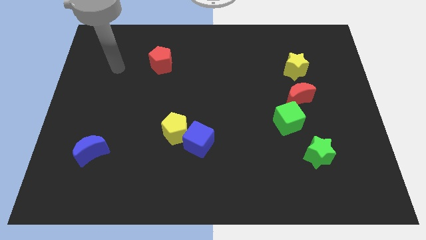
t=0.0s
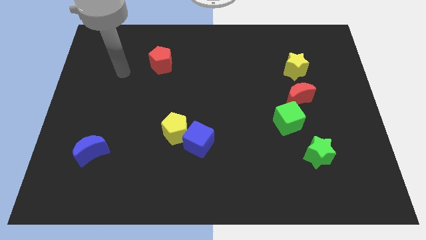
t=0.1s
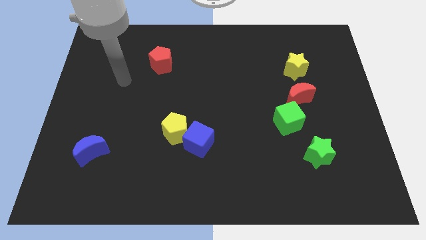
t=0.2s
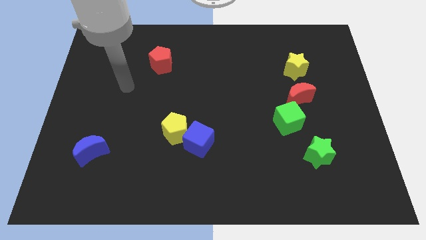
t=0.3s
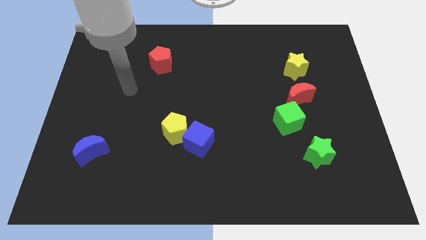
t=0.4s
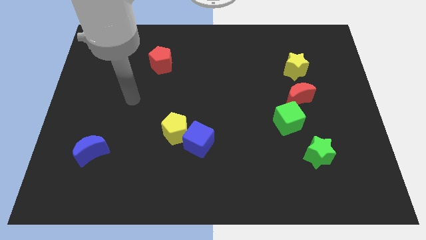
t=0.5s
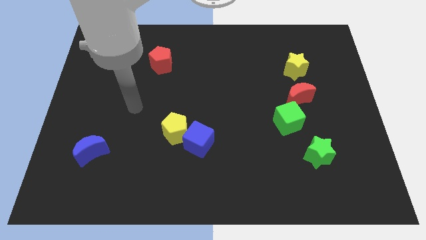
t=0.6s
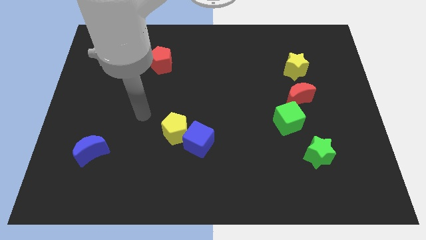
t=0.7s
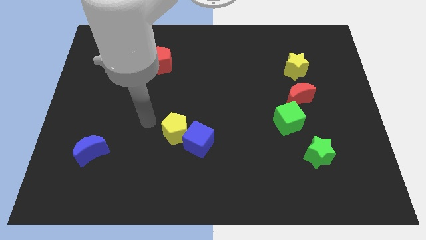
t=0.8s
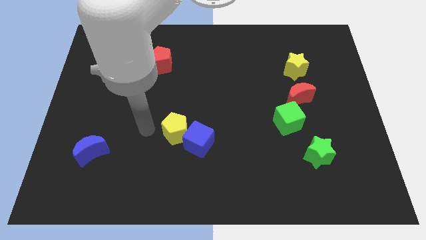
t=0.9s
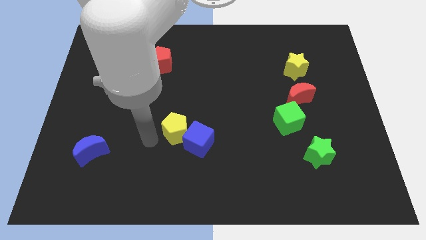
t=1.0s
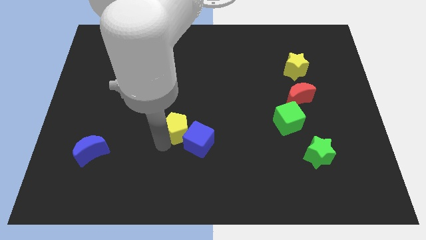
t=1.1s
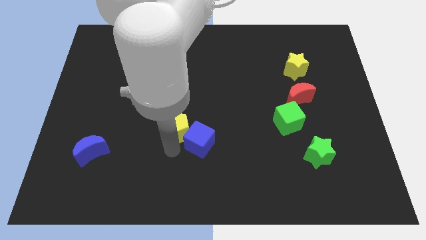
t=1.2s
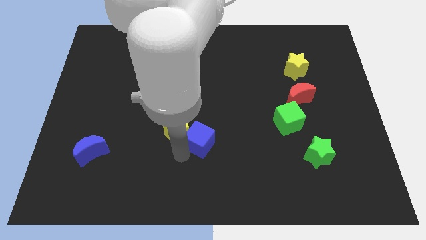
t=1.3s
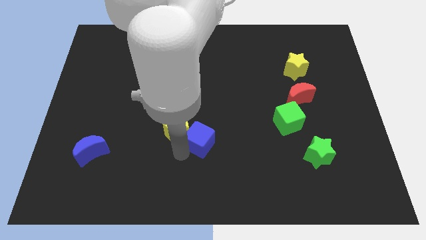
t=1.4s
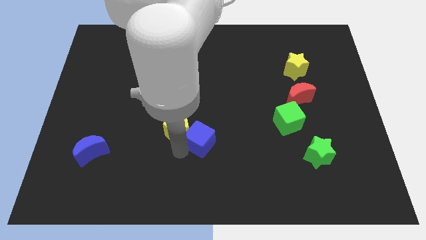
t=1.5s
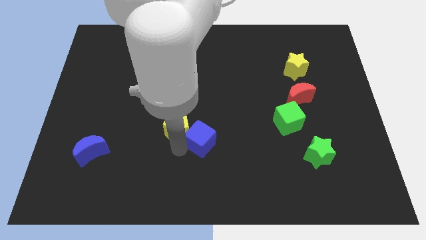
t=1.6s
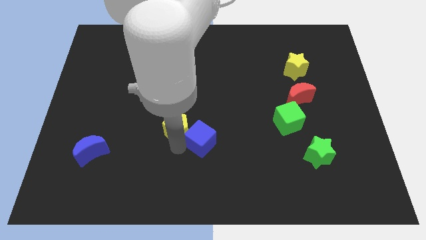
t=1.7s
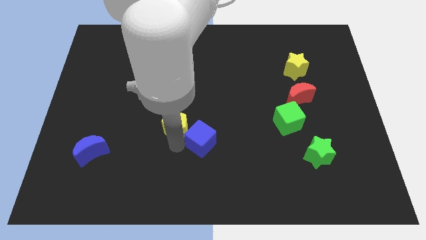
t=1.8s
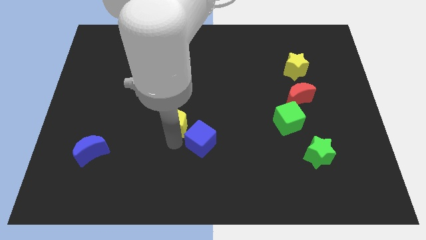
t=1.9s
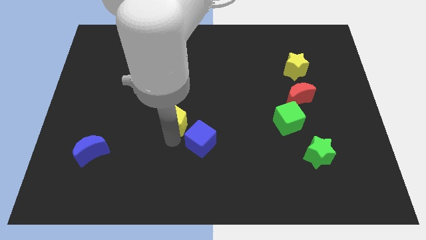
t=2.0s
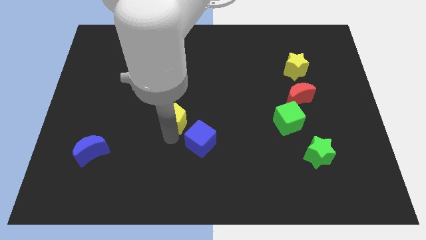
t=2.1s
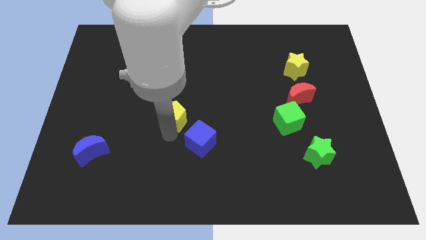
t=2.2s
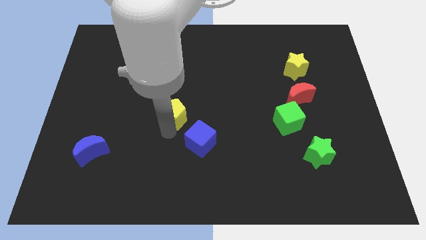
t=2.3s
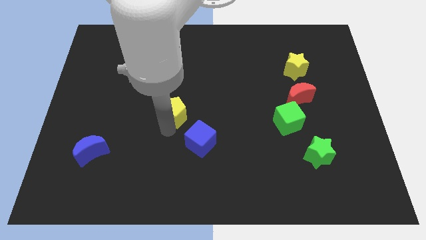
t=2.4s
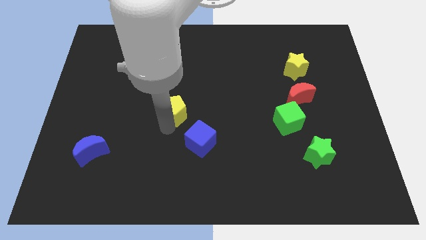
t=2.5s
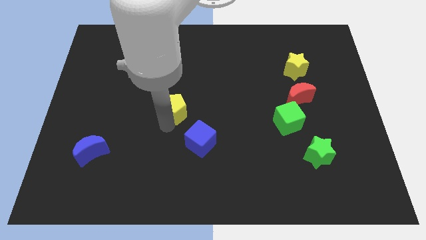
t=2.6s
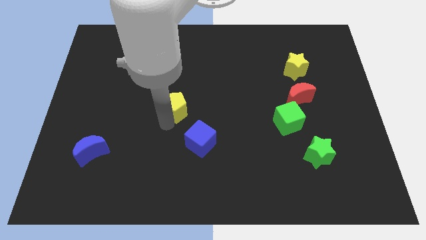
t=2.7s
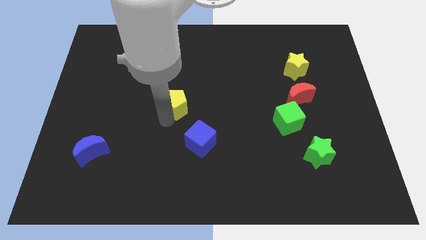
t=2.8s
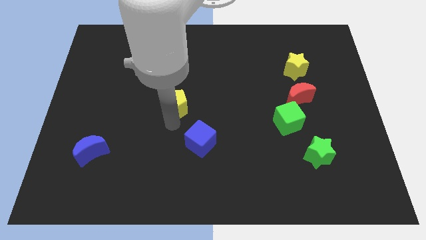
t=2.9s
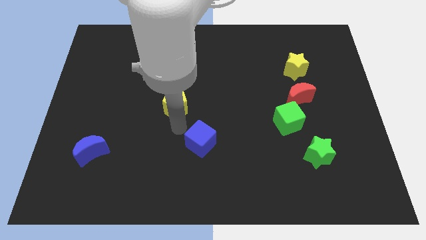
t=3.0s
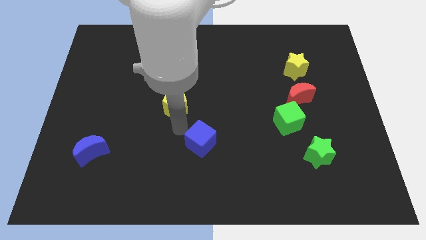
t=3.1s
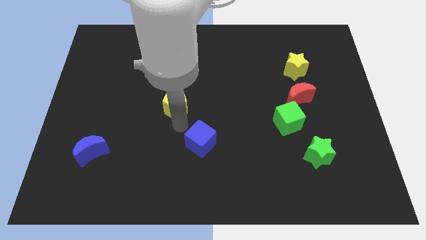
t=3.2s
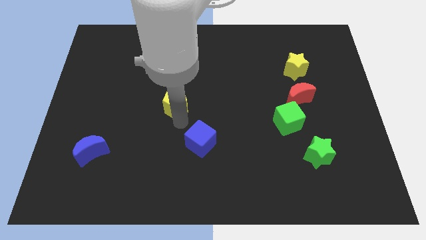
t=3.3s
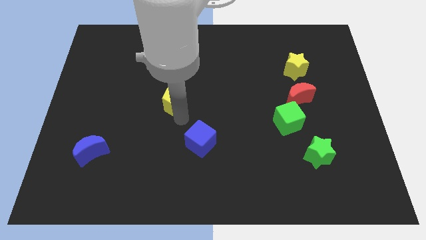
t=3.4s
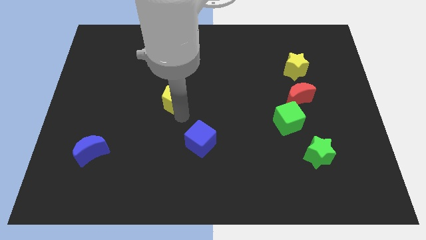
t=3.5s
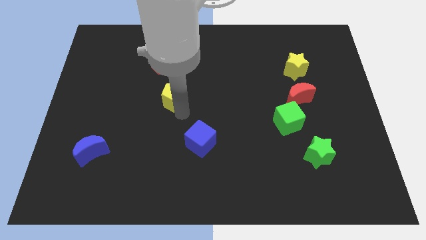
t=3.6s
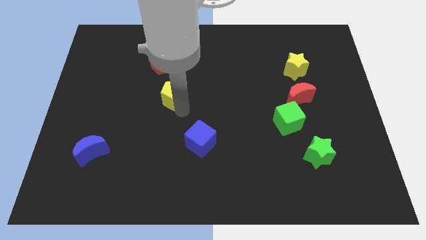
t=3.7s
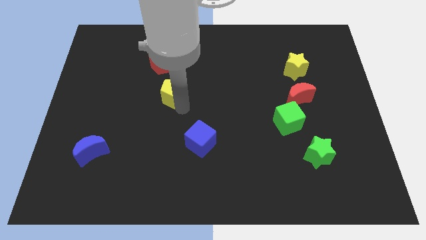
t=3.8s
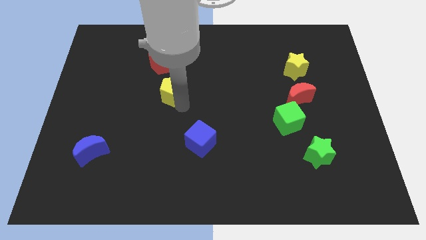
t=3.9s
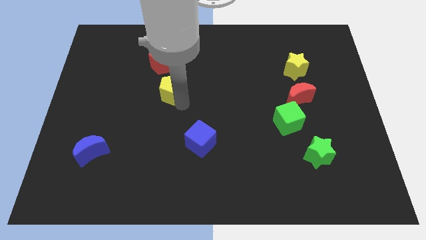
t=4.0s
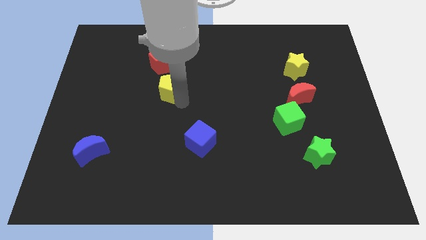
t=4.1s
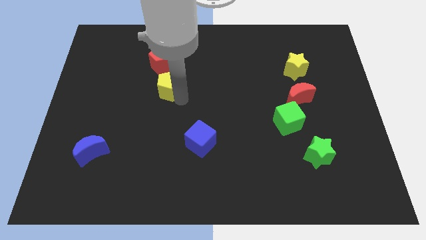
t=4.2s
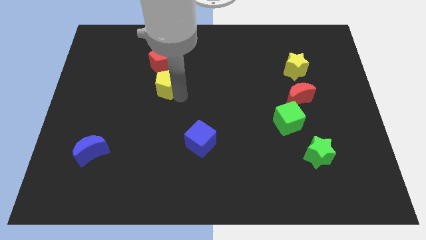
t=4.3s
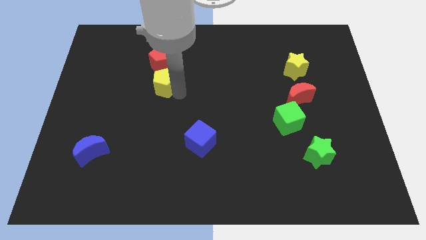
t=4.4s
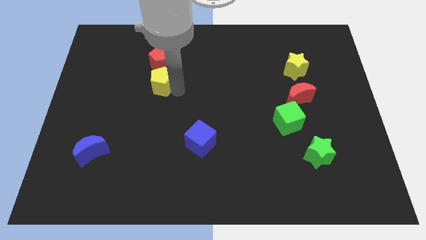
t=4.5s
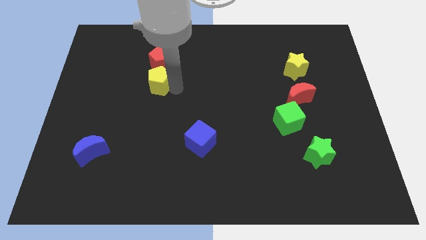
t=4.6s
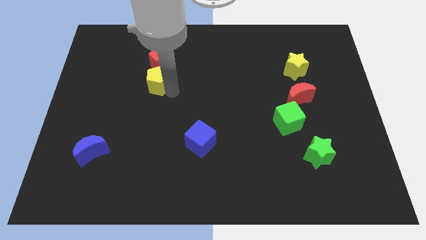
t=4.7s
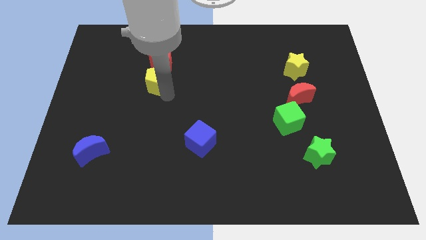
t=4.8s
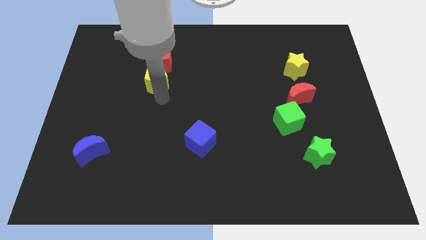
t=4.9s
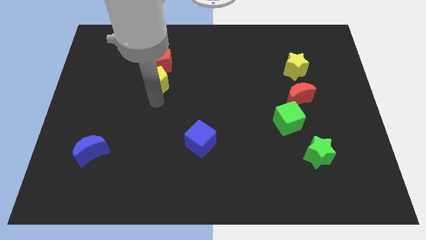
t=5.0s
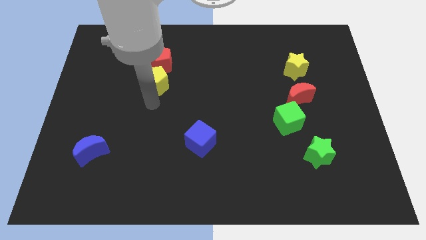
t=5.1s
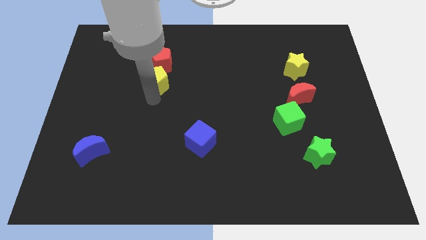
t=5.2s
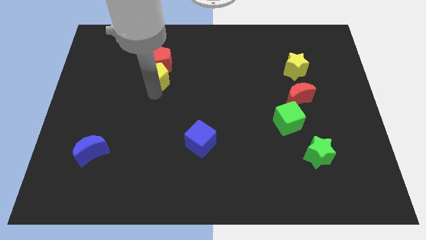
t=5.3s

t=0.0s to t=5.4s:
move the yellow pentagon next to the red pentagon

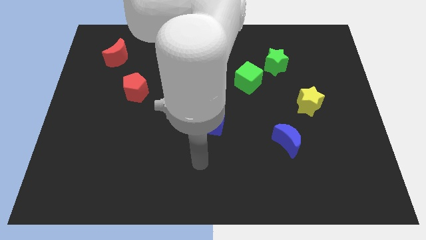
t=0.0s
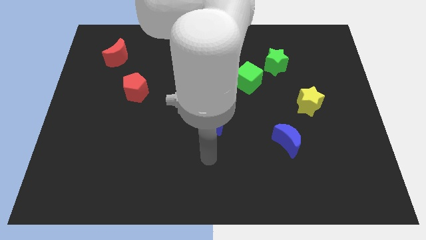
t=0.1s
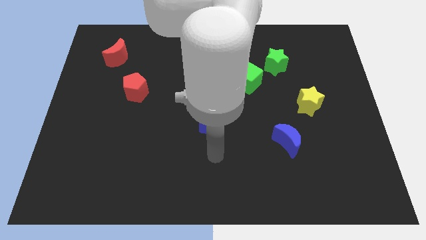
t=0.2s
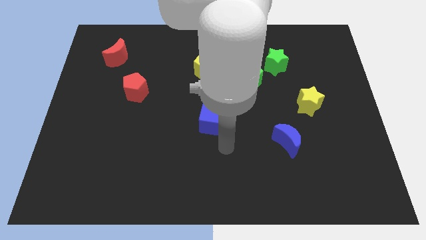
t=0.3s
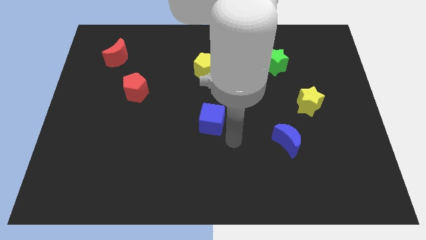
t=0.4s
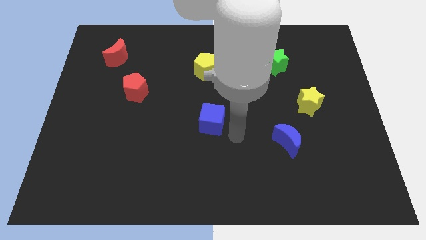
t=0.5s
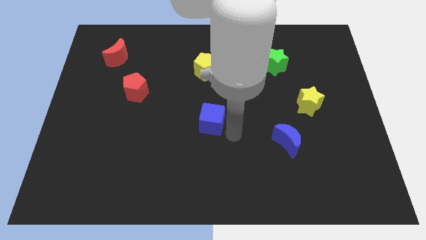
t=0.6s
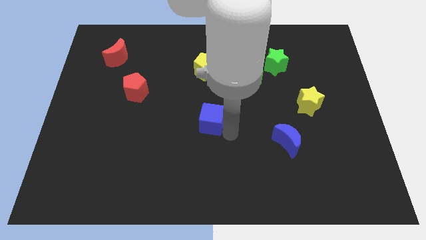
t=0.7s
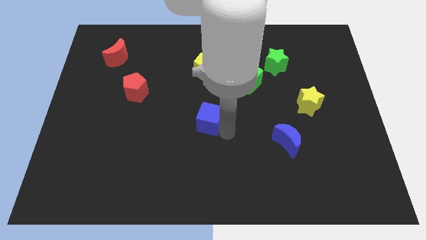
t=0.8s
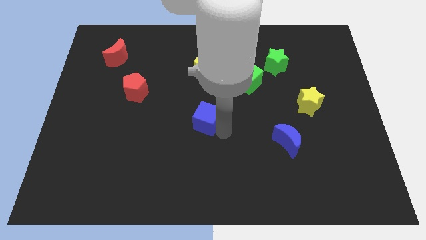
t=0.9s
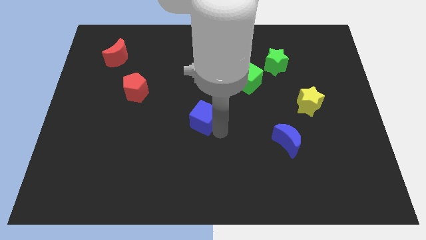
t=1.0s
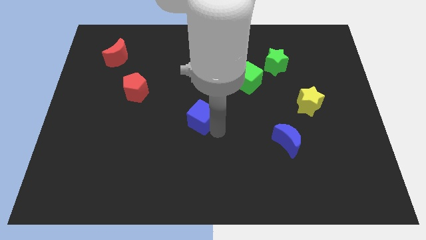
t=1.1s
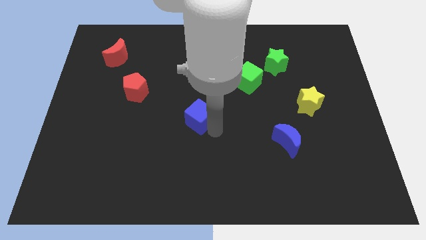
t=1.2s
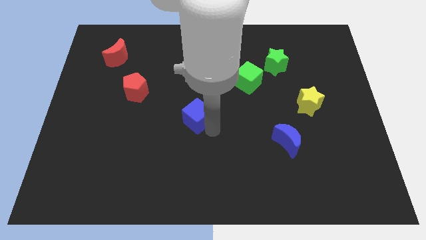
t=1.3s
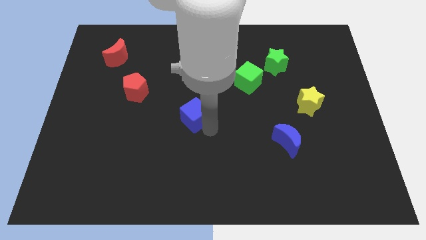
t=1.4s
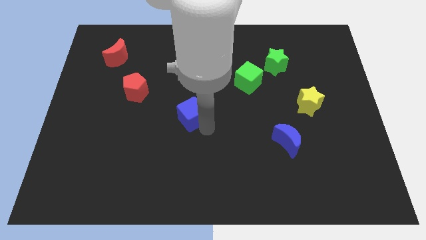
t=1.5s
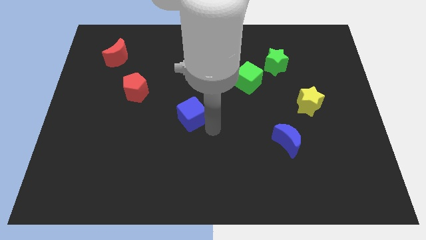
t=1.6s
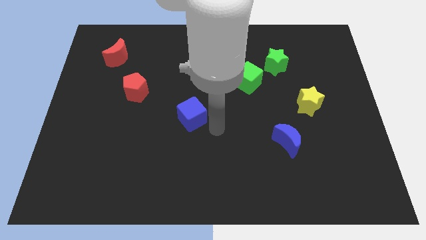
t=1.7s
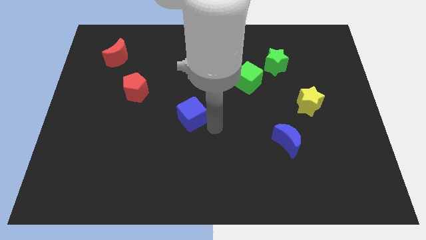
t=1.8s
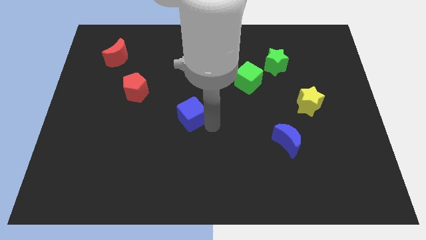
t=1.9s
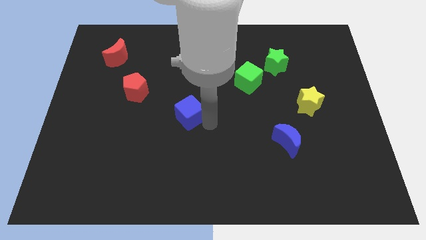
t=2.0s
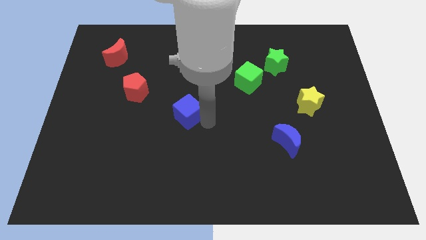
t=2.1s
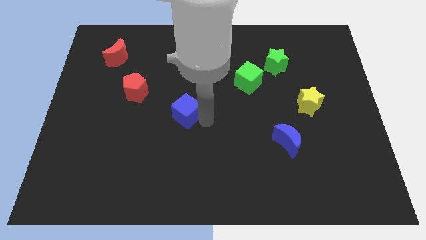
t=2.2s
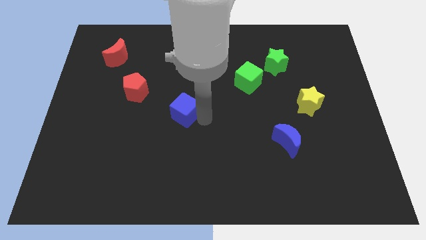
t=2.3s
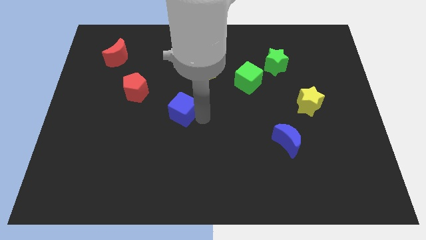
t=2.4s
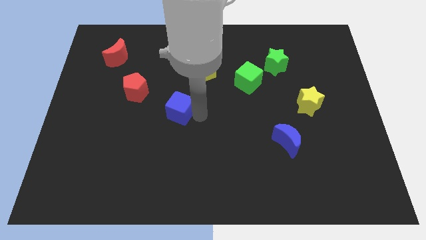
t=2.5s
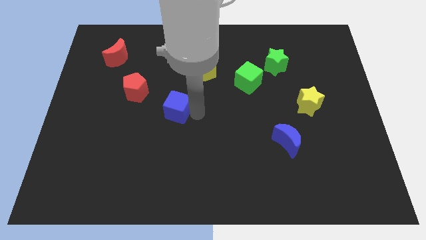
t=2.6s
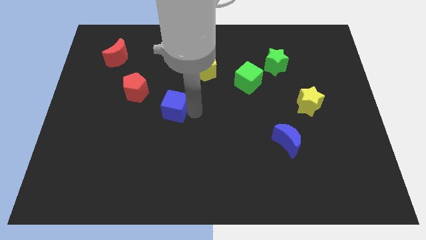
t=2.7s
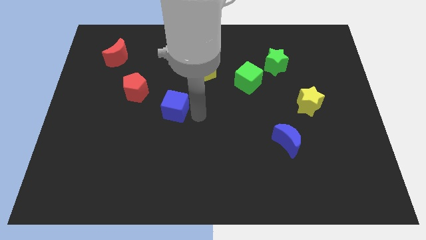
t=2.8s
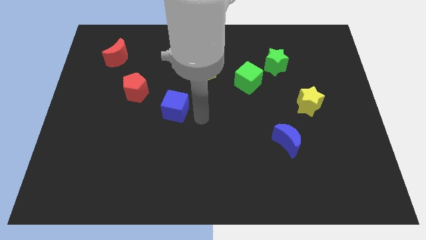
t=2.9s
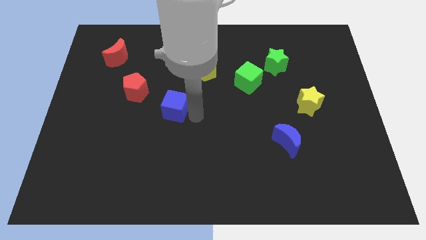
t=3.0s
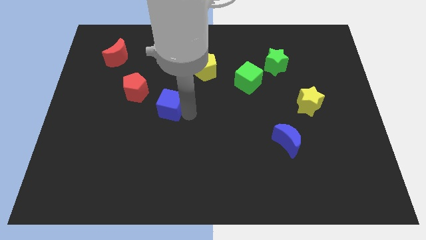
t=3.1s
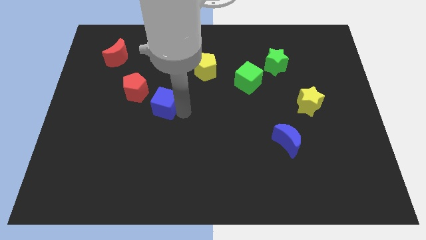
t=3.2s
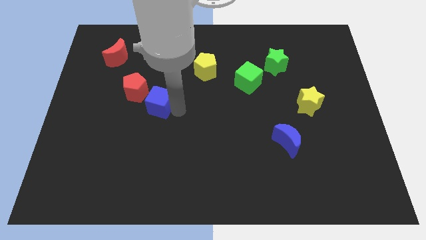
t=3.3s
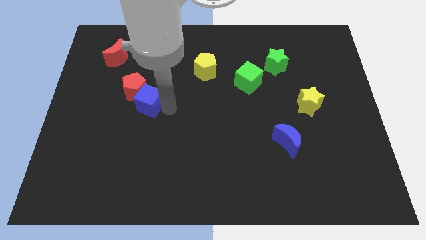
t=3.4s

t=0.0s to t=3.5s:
push the blue cube to the red pentagon
